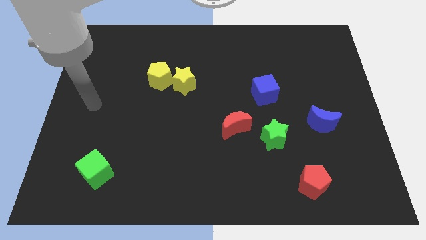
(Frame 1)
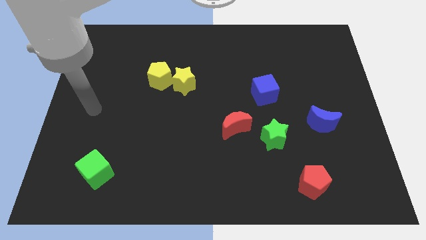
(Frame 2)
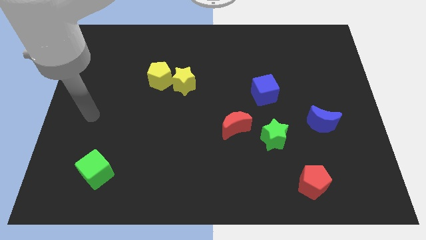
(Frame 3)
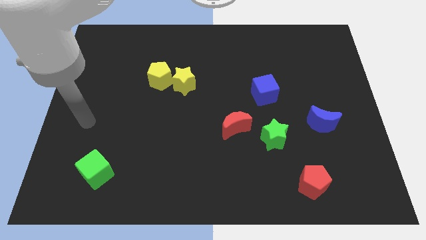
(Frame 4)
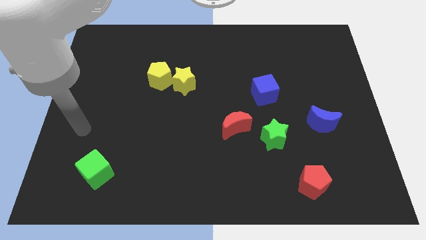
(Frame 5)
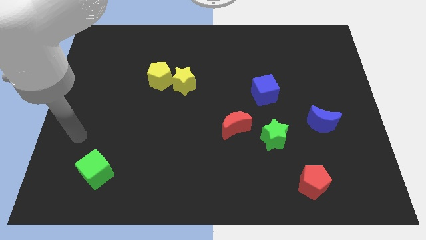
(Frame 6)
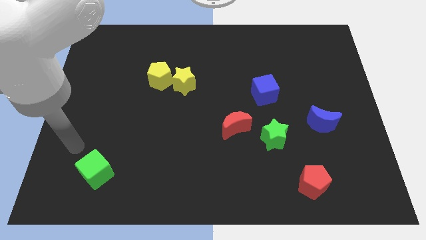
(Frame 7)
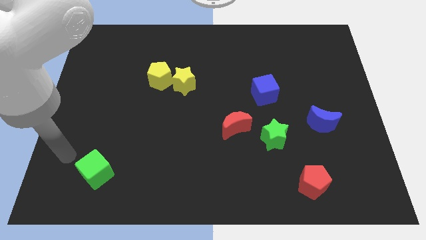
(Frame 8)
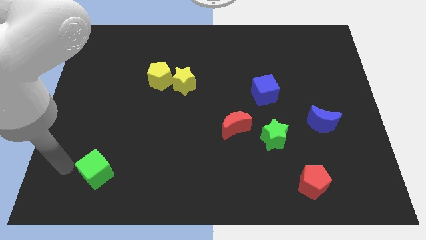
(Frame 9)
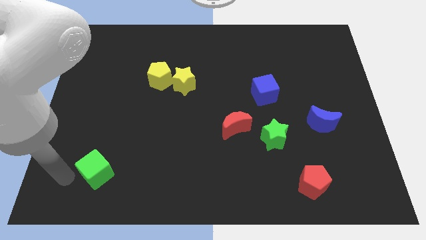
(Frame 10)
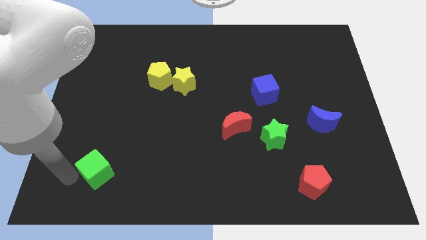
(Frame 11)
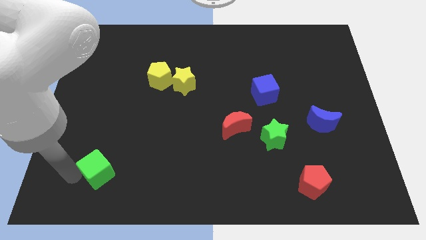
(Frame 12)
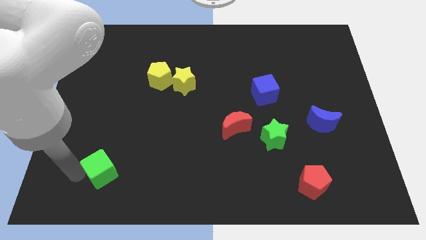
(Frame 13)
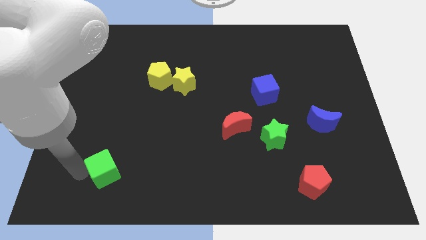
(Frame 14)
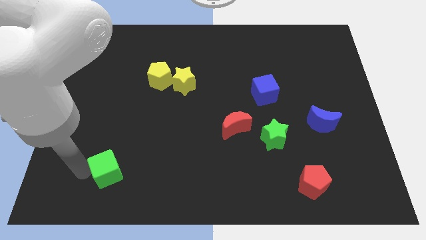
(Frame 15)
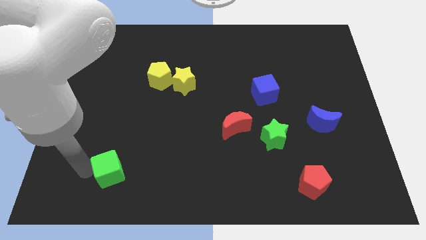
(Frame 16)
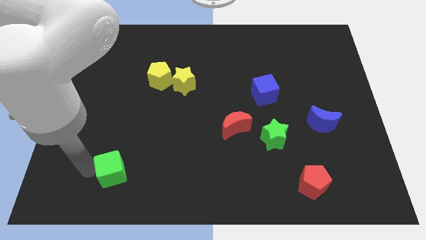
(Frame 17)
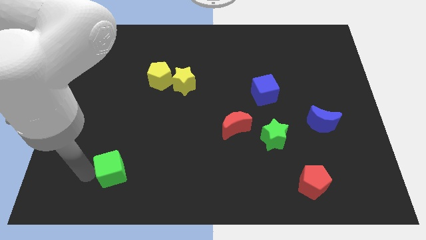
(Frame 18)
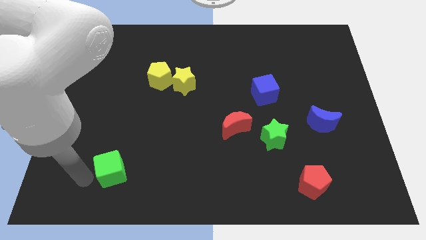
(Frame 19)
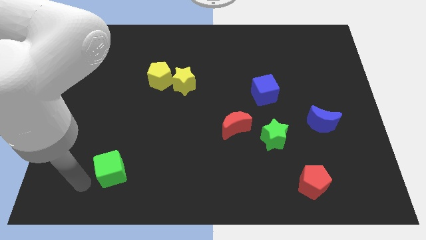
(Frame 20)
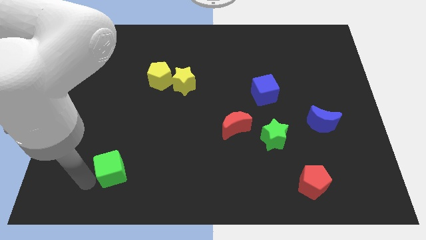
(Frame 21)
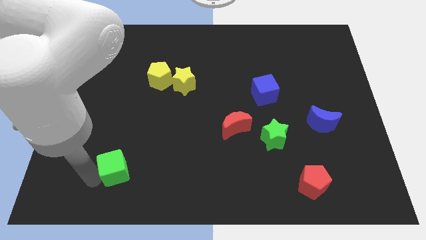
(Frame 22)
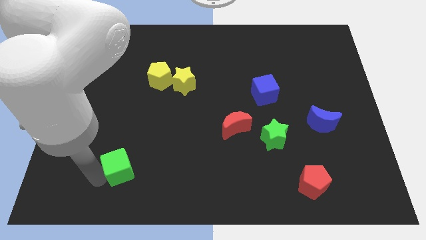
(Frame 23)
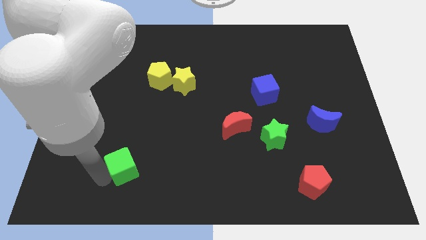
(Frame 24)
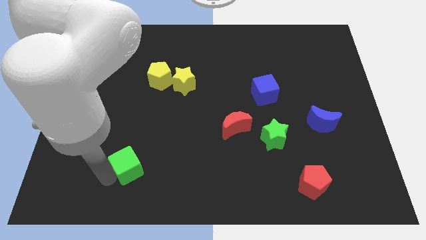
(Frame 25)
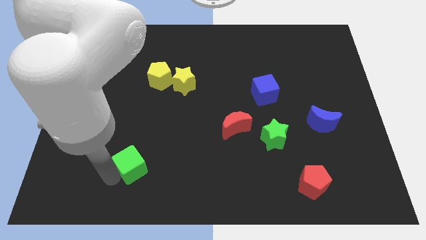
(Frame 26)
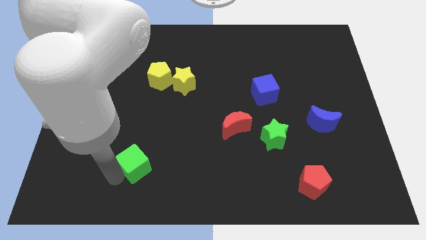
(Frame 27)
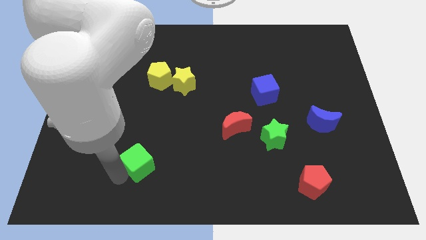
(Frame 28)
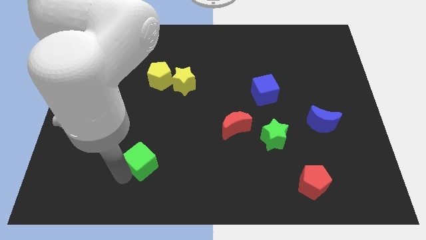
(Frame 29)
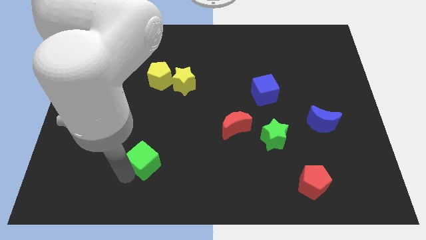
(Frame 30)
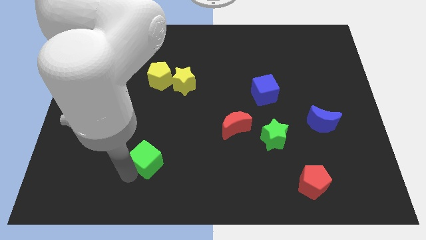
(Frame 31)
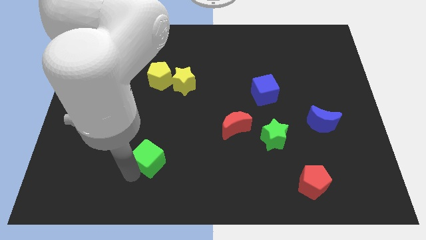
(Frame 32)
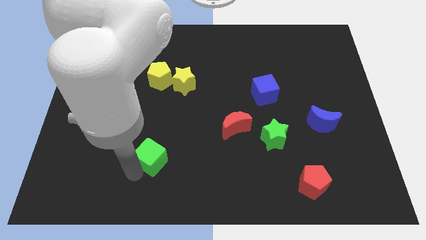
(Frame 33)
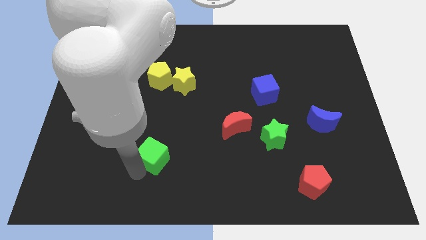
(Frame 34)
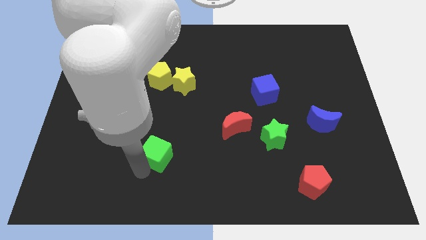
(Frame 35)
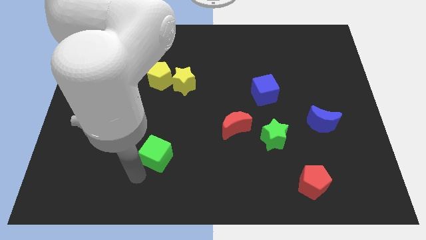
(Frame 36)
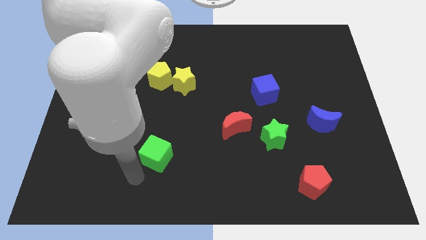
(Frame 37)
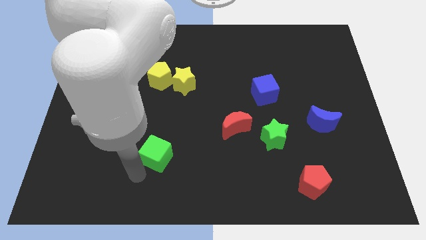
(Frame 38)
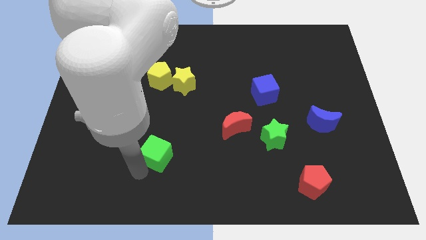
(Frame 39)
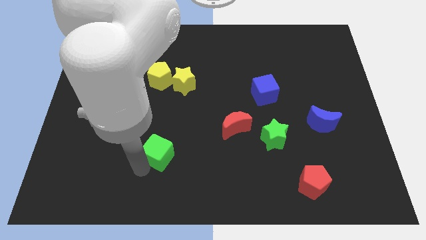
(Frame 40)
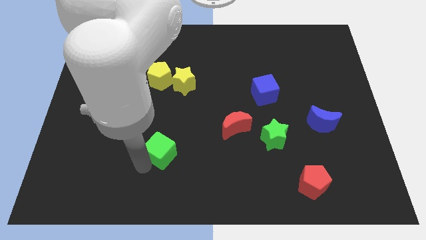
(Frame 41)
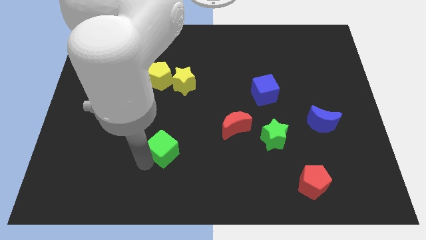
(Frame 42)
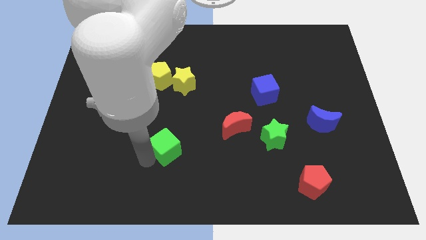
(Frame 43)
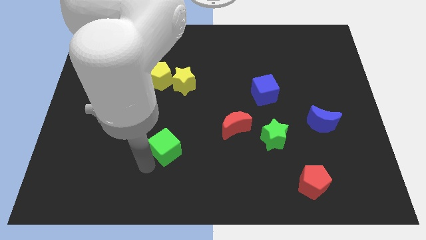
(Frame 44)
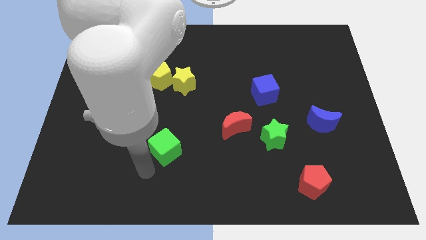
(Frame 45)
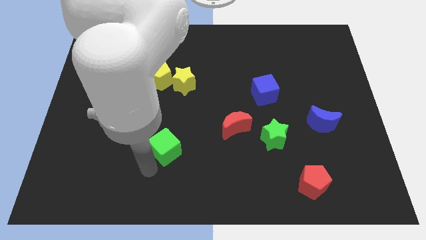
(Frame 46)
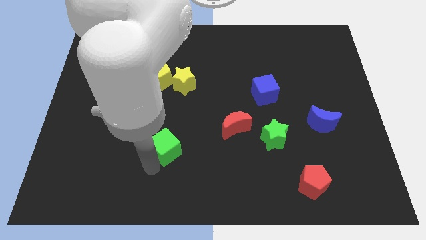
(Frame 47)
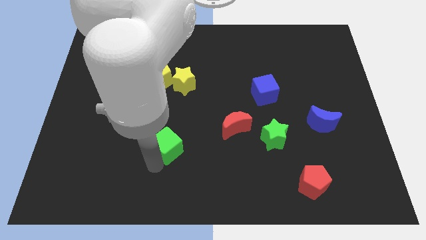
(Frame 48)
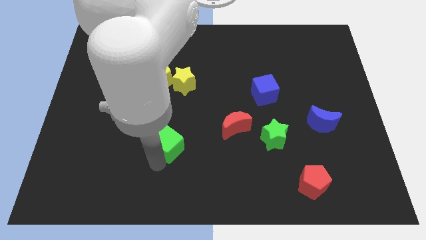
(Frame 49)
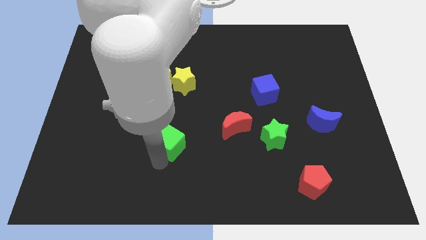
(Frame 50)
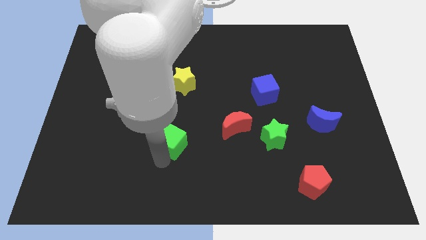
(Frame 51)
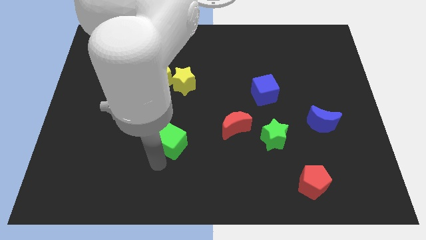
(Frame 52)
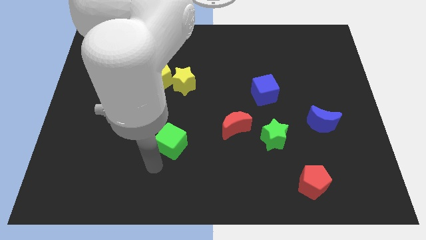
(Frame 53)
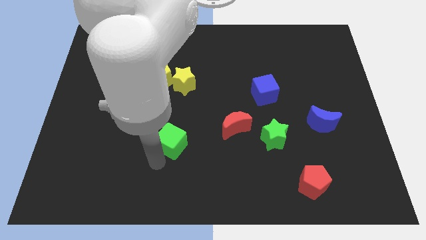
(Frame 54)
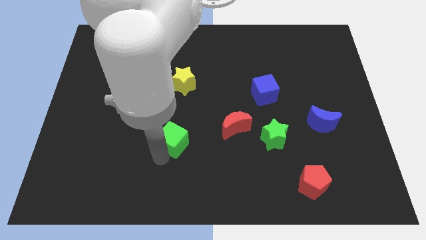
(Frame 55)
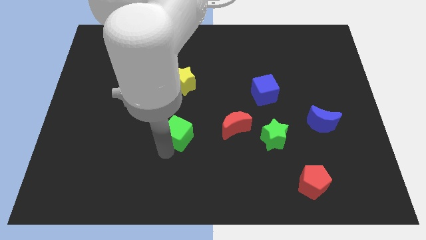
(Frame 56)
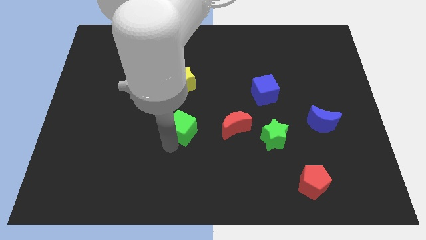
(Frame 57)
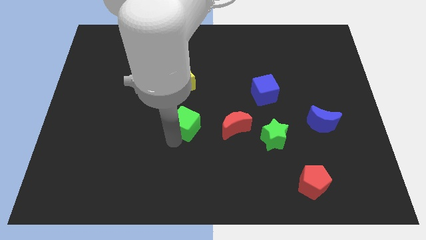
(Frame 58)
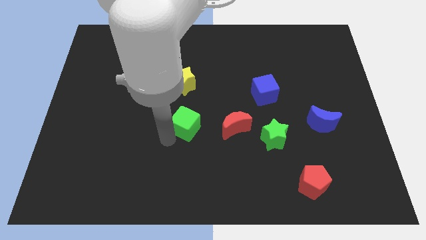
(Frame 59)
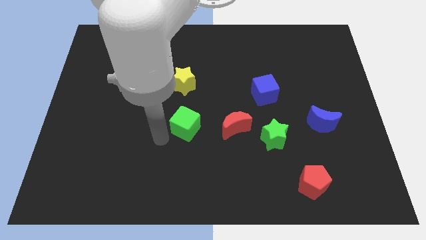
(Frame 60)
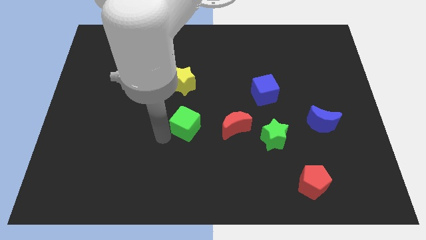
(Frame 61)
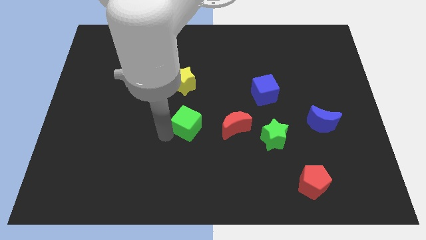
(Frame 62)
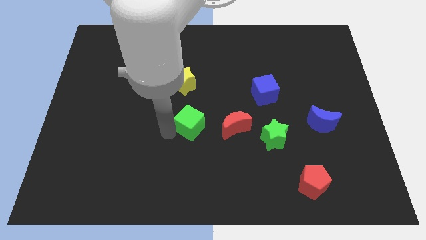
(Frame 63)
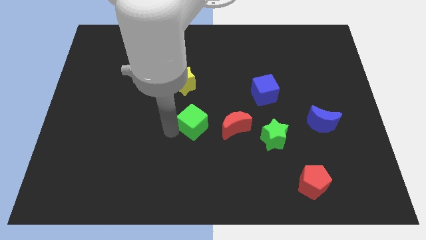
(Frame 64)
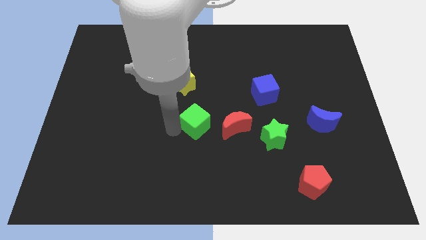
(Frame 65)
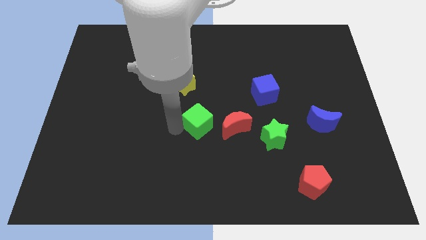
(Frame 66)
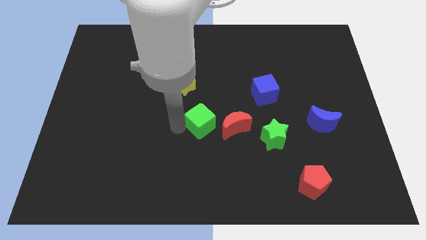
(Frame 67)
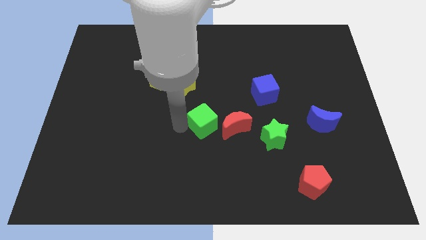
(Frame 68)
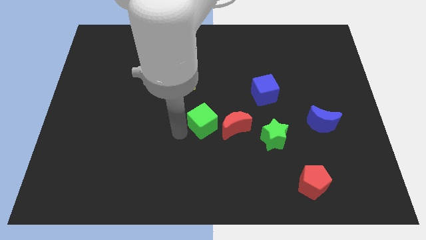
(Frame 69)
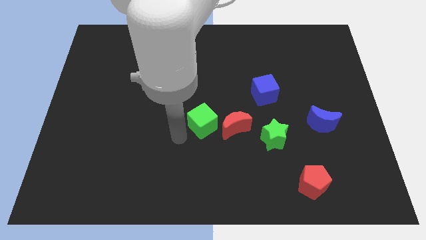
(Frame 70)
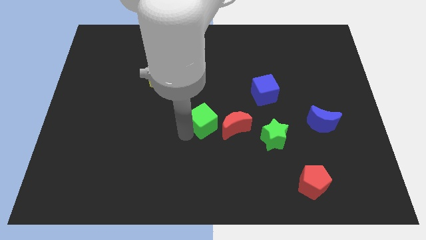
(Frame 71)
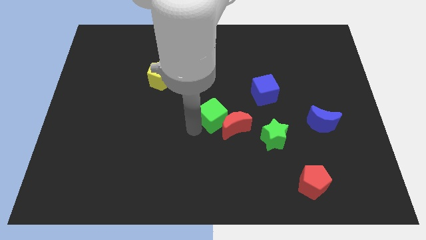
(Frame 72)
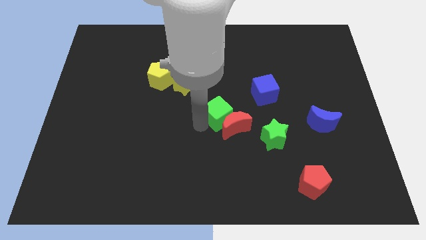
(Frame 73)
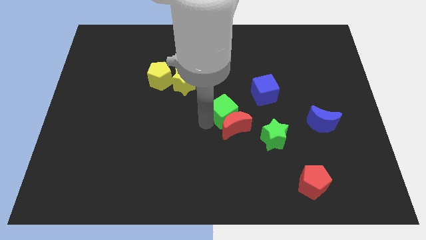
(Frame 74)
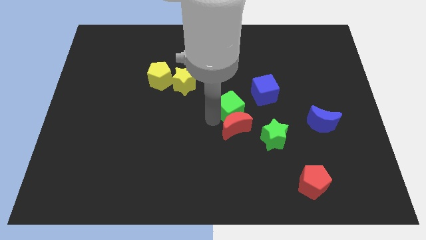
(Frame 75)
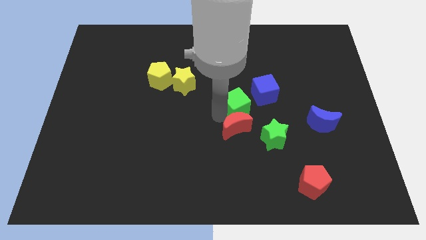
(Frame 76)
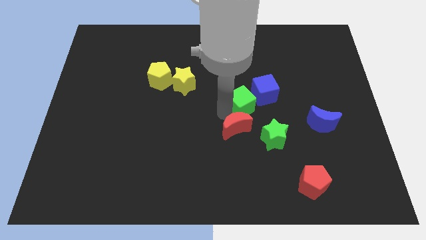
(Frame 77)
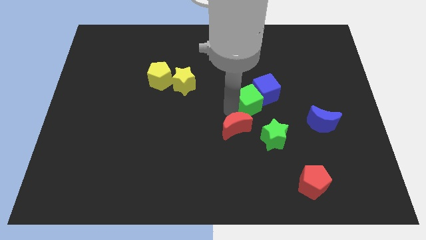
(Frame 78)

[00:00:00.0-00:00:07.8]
put the green cube towards the blue cube
